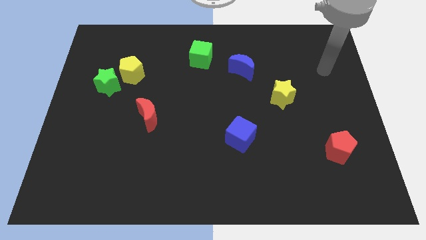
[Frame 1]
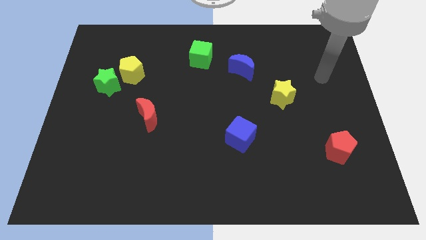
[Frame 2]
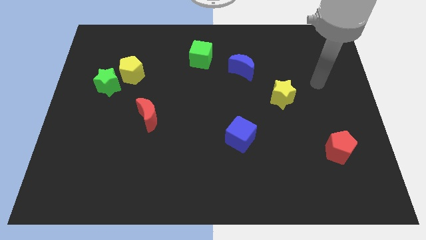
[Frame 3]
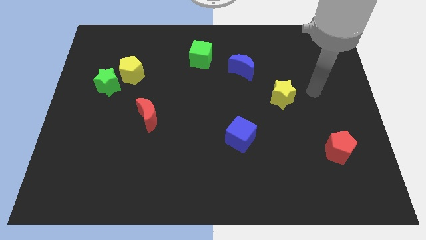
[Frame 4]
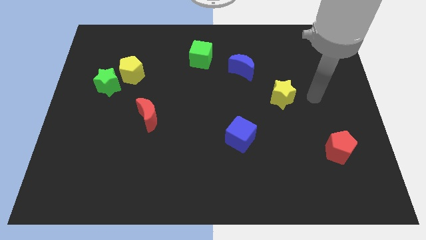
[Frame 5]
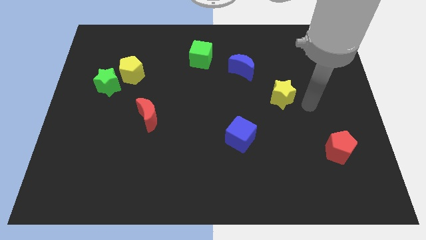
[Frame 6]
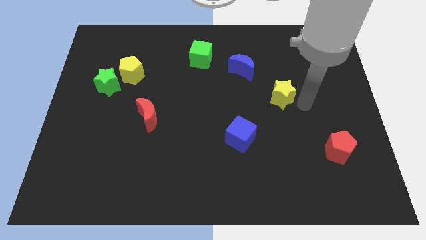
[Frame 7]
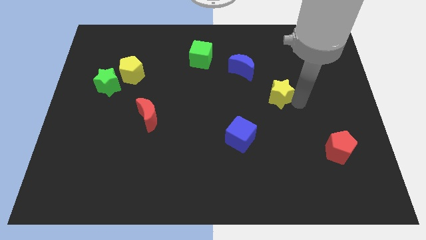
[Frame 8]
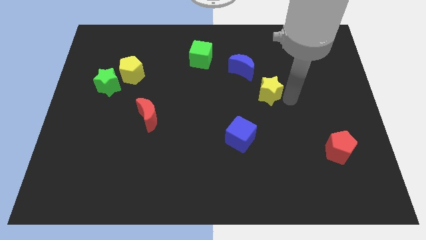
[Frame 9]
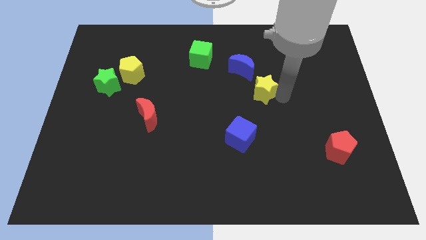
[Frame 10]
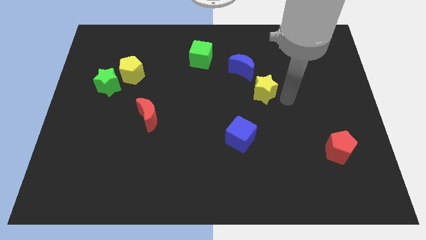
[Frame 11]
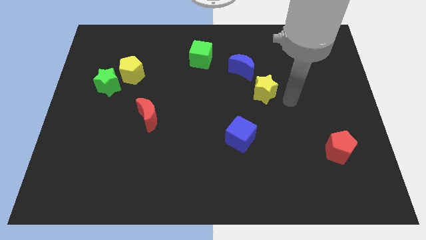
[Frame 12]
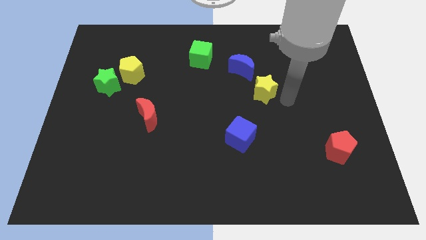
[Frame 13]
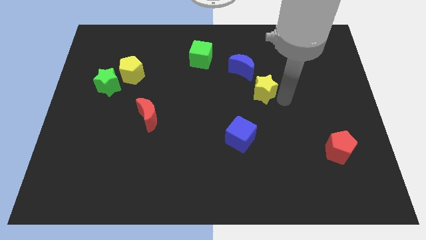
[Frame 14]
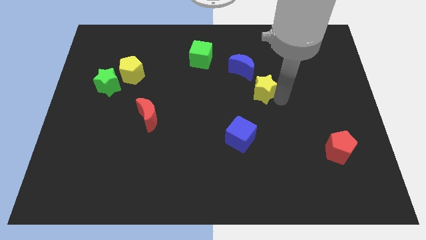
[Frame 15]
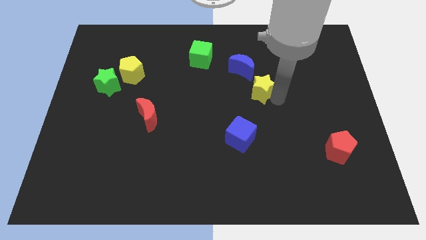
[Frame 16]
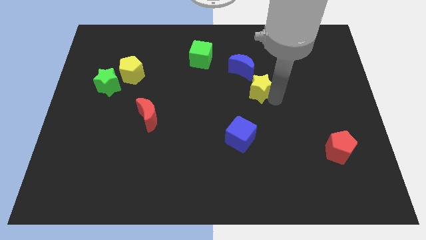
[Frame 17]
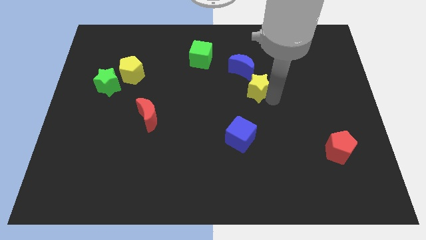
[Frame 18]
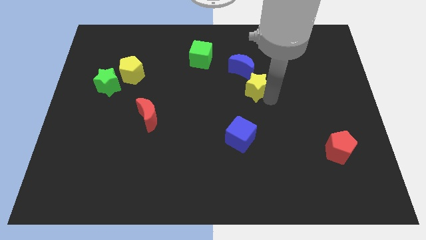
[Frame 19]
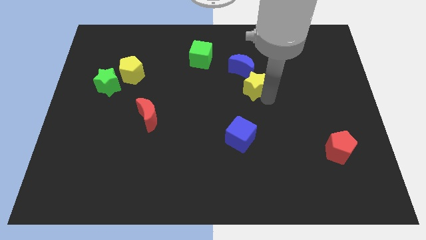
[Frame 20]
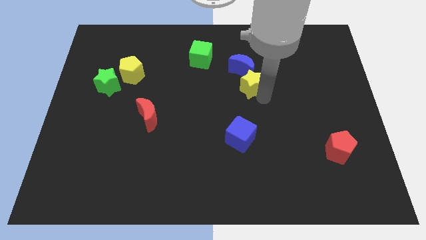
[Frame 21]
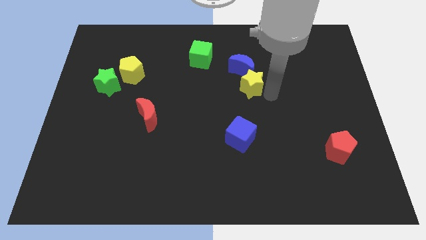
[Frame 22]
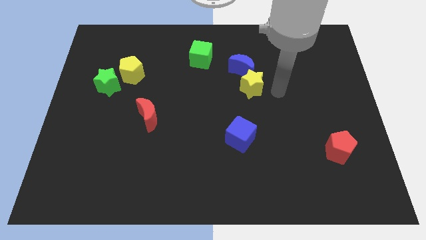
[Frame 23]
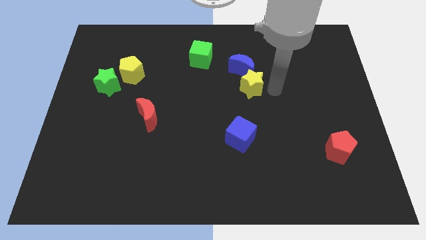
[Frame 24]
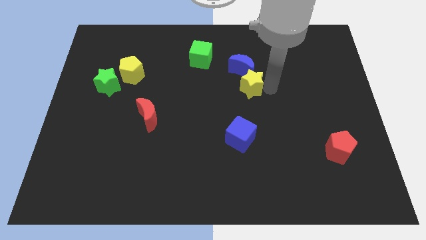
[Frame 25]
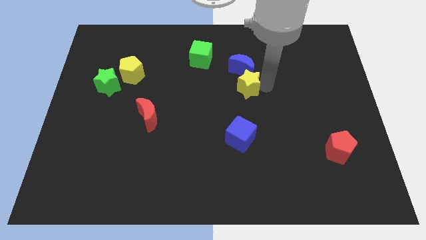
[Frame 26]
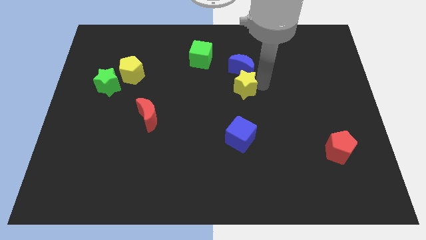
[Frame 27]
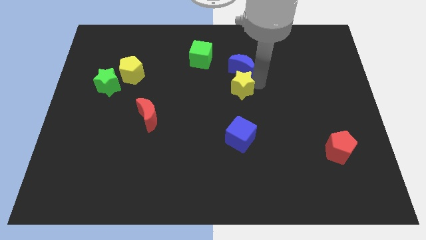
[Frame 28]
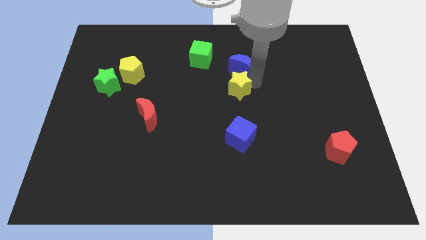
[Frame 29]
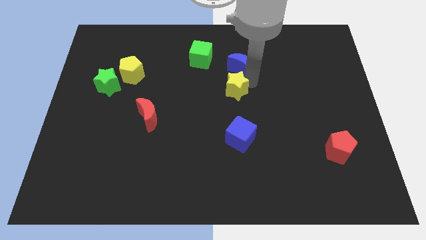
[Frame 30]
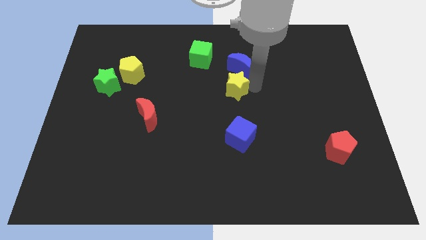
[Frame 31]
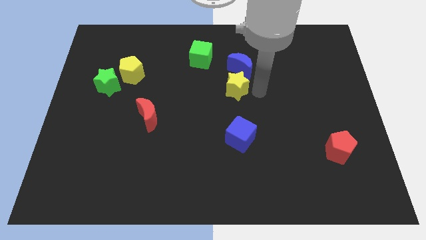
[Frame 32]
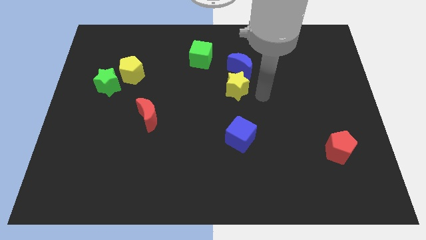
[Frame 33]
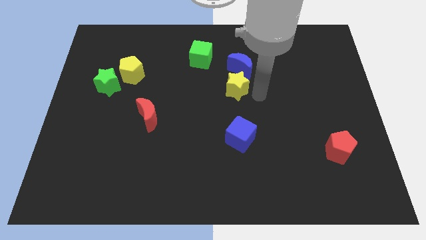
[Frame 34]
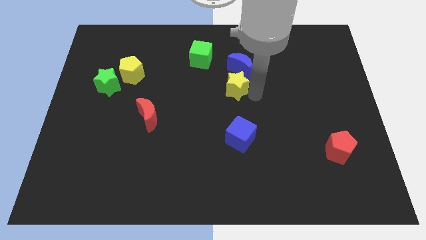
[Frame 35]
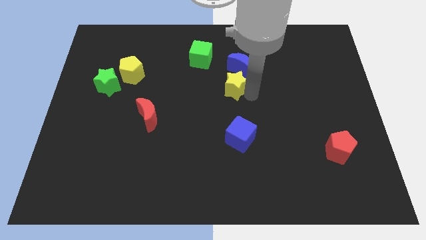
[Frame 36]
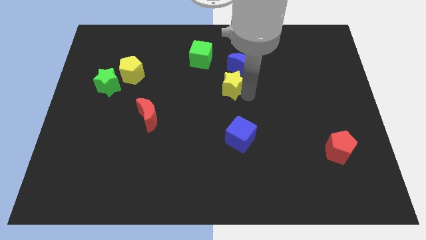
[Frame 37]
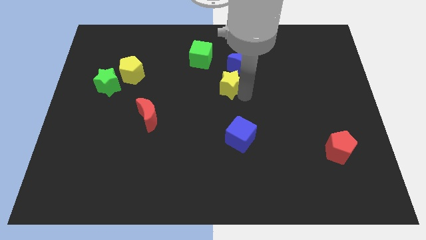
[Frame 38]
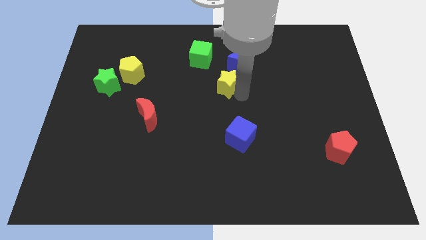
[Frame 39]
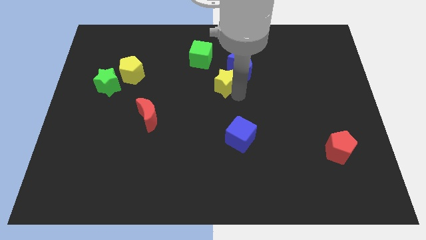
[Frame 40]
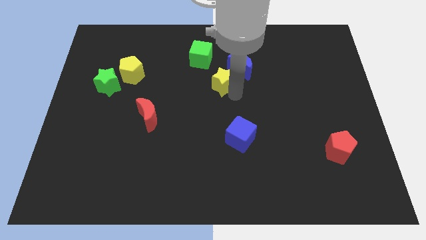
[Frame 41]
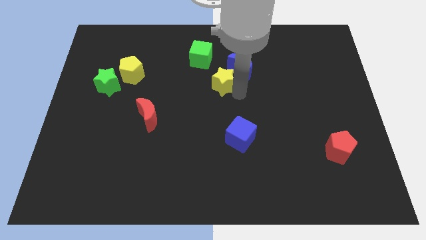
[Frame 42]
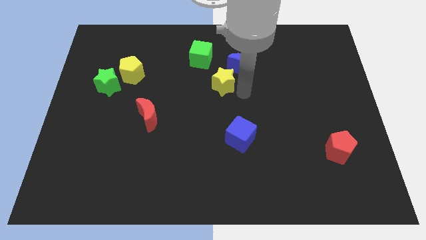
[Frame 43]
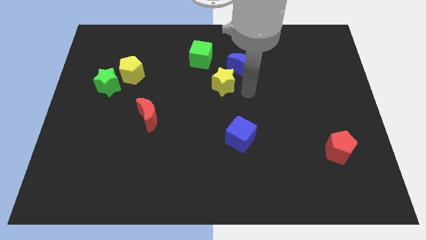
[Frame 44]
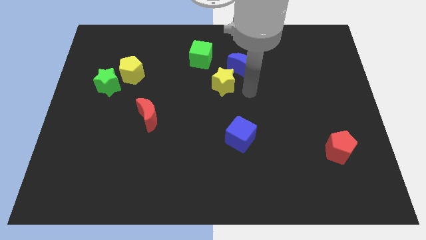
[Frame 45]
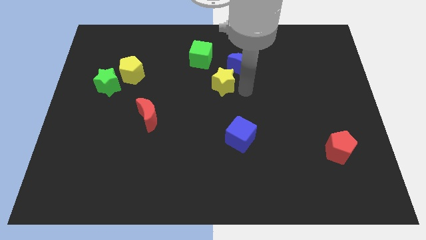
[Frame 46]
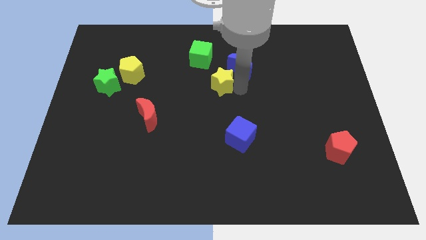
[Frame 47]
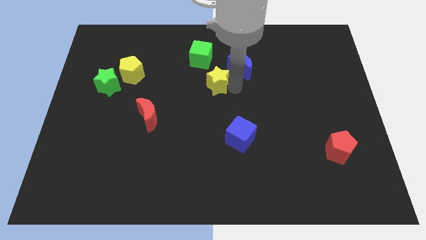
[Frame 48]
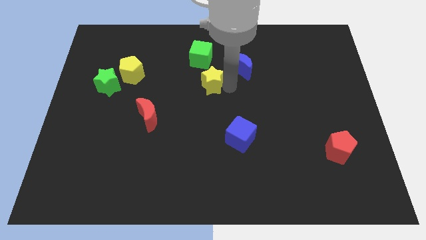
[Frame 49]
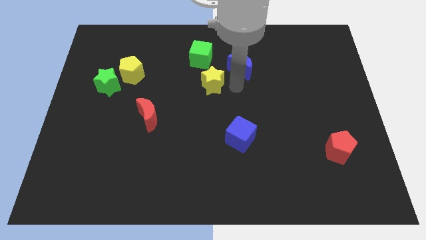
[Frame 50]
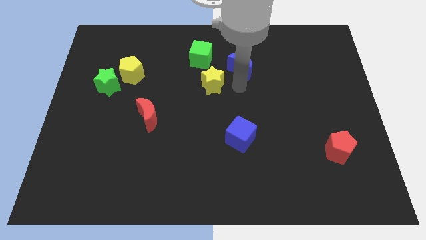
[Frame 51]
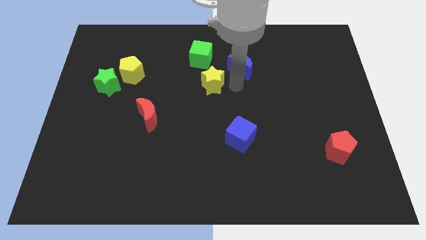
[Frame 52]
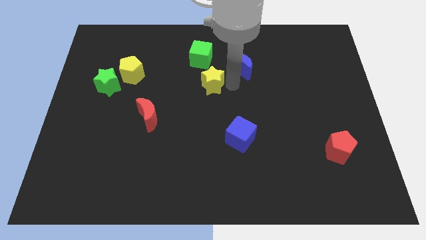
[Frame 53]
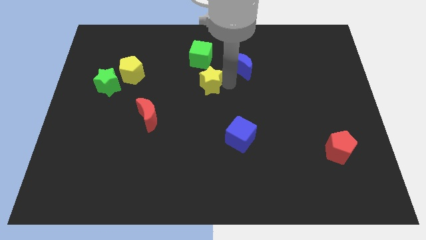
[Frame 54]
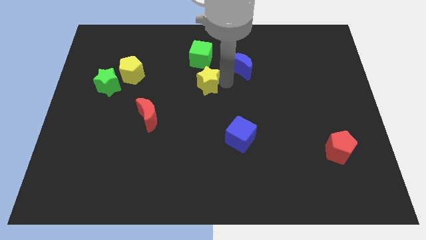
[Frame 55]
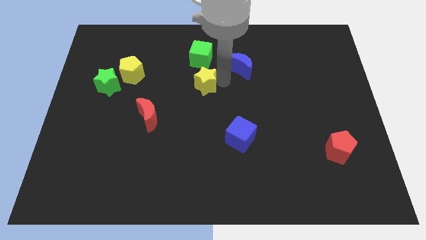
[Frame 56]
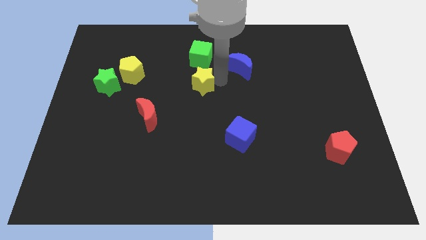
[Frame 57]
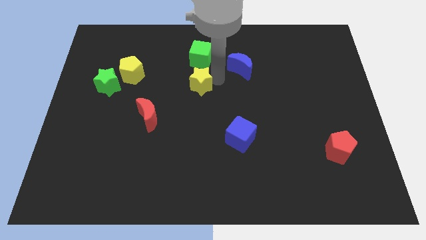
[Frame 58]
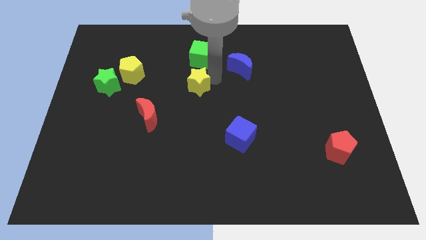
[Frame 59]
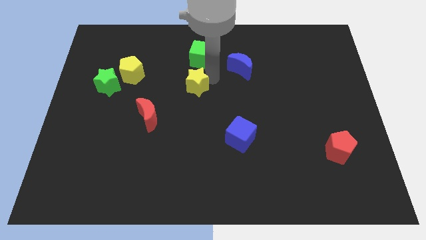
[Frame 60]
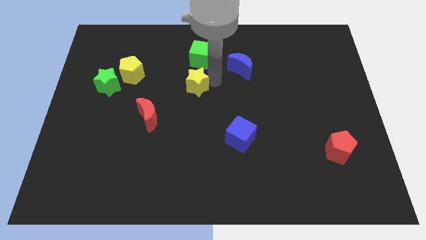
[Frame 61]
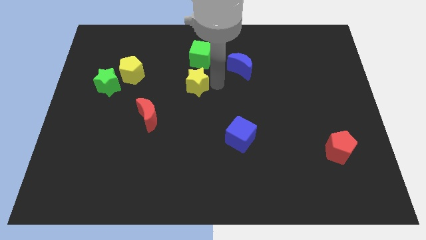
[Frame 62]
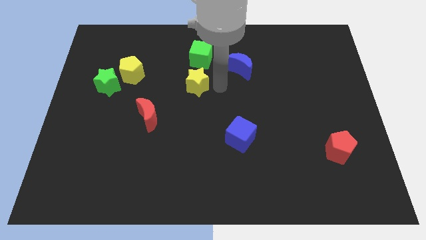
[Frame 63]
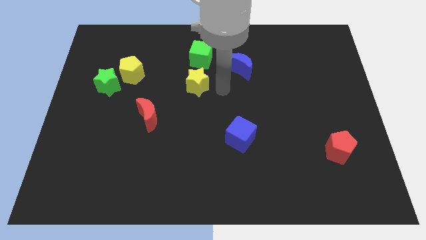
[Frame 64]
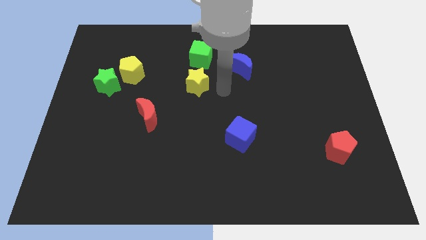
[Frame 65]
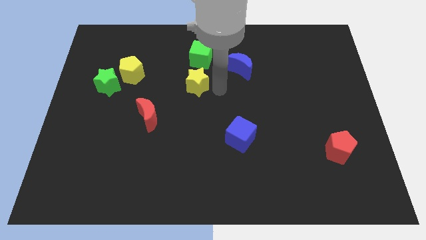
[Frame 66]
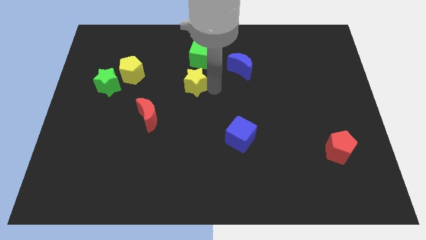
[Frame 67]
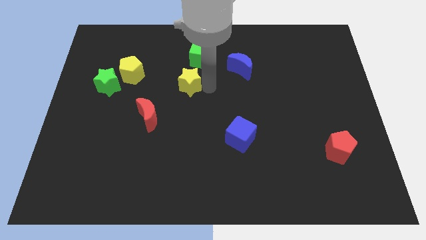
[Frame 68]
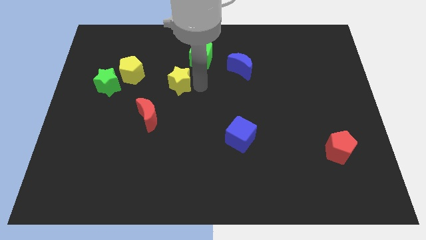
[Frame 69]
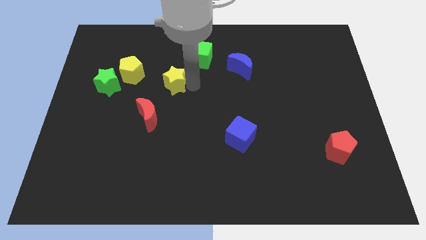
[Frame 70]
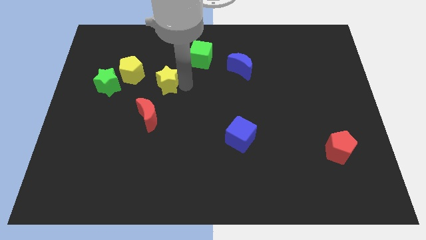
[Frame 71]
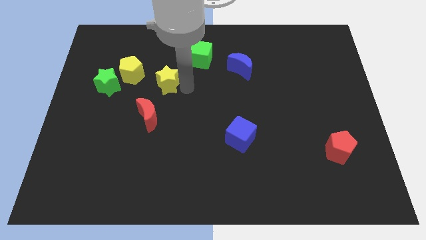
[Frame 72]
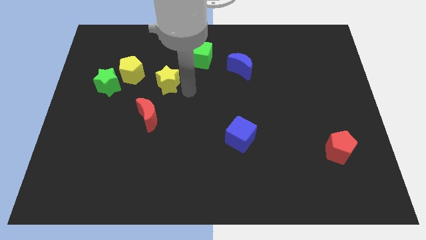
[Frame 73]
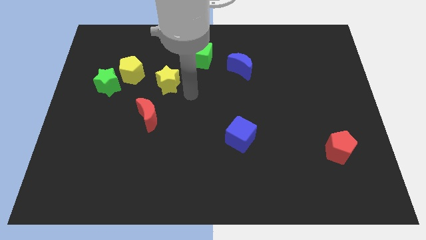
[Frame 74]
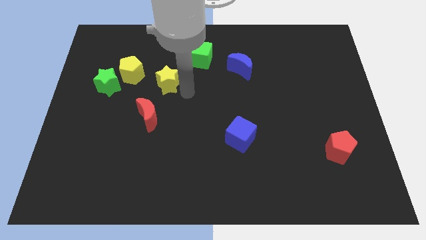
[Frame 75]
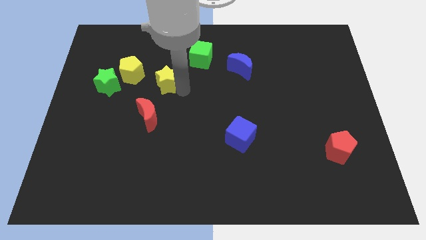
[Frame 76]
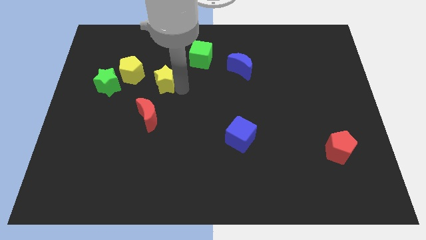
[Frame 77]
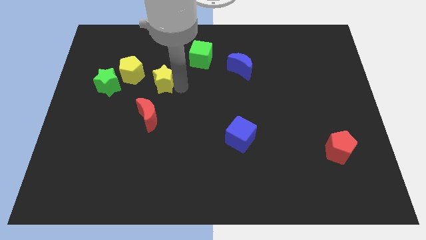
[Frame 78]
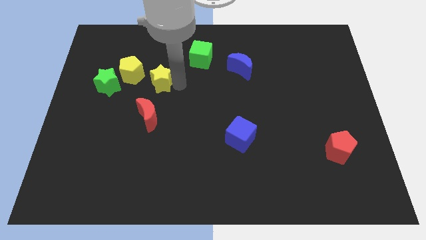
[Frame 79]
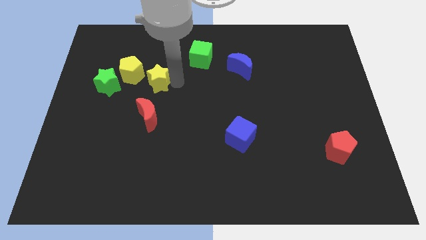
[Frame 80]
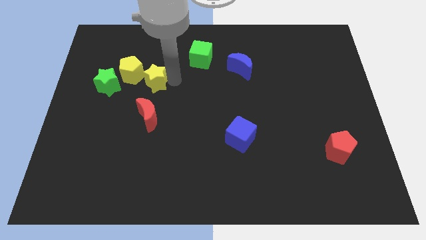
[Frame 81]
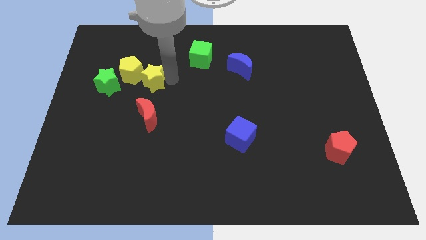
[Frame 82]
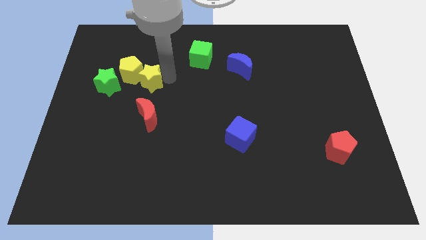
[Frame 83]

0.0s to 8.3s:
push the yellow star close to the yellow pentagon
